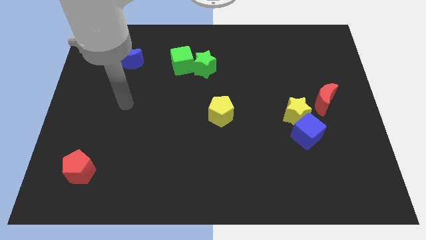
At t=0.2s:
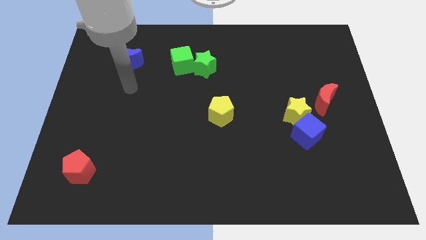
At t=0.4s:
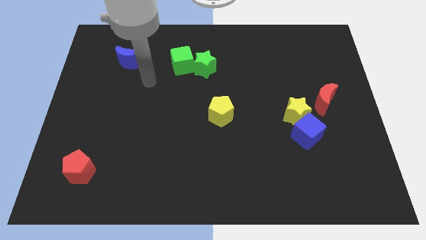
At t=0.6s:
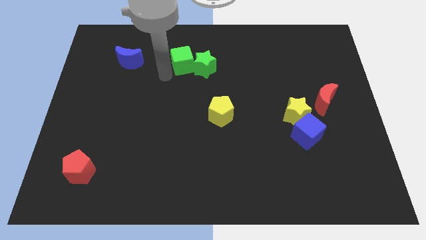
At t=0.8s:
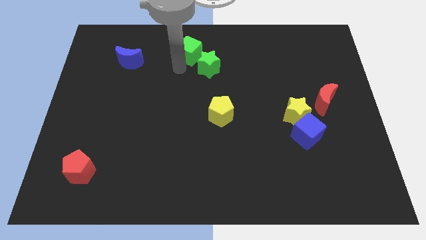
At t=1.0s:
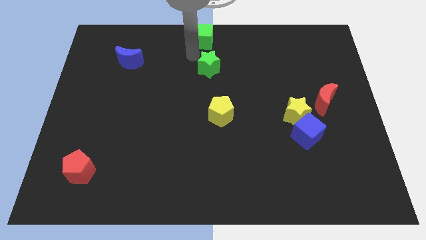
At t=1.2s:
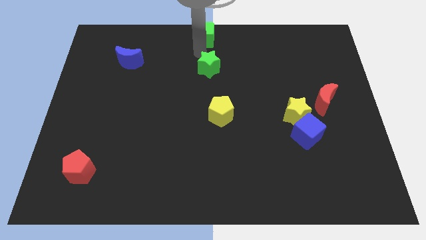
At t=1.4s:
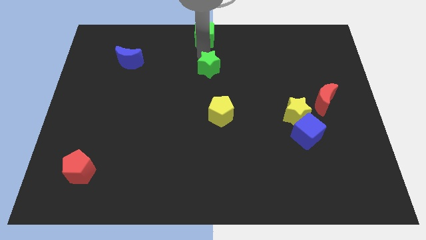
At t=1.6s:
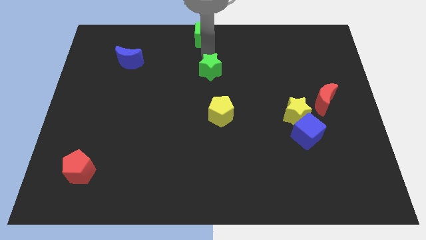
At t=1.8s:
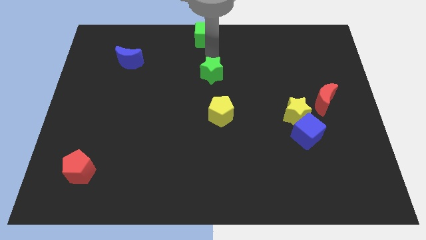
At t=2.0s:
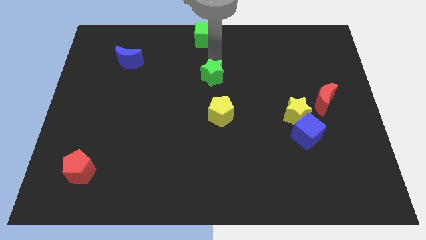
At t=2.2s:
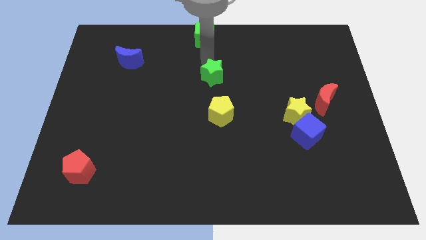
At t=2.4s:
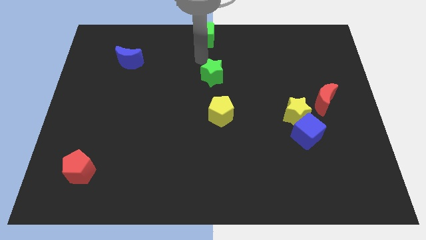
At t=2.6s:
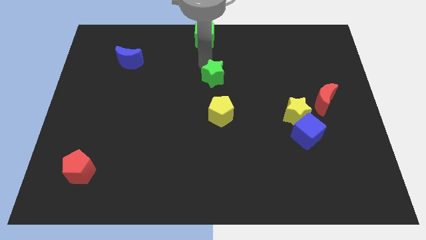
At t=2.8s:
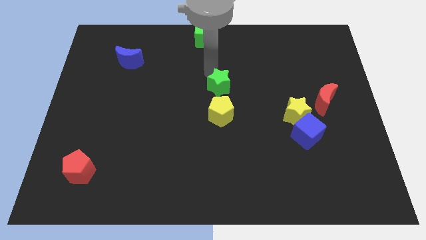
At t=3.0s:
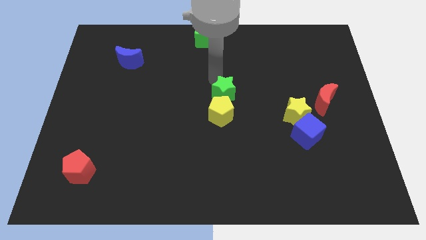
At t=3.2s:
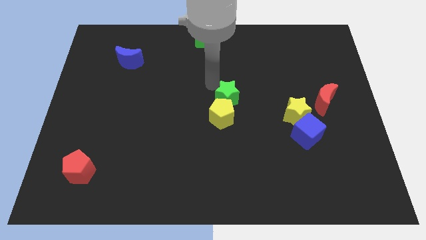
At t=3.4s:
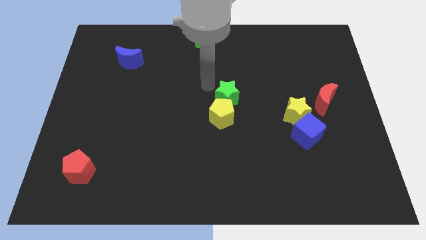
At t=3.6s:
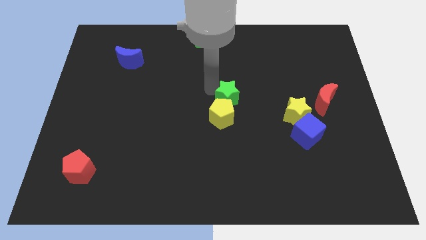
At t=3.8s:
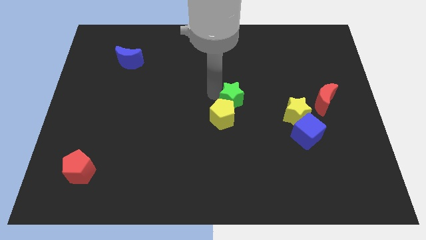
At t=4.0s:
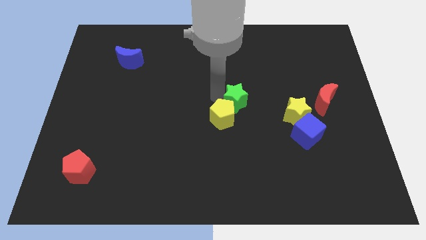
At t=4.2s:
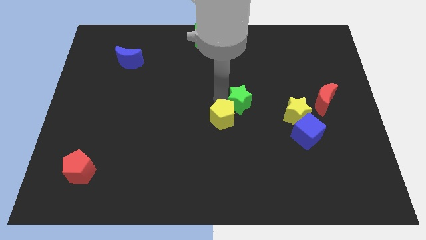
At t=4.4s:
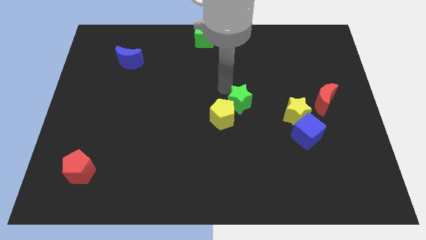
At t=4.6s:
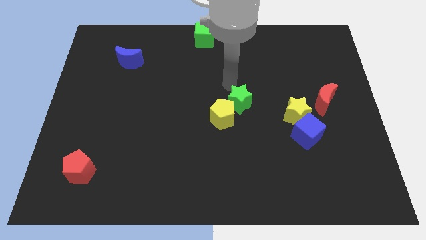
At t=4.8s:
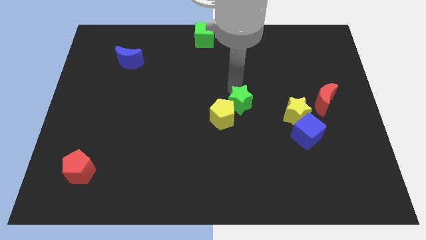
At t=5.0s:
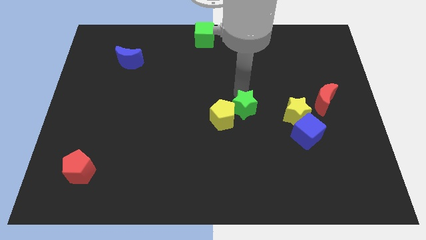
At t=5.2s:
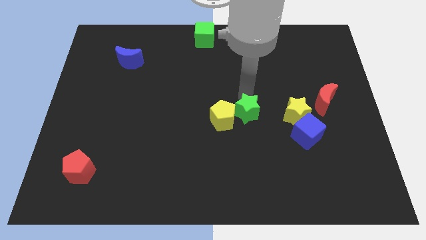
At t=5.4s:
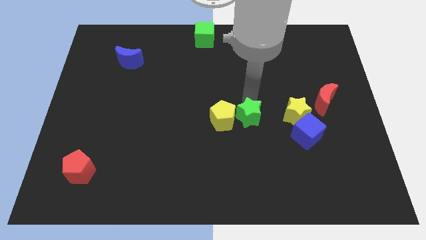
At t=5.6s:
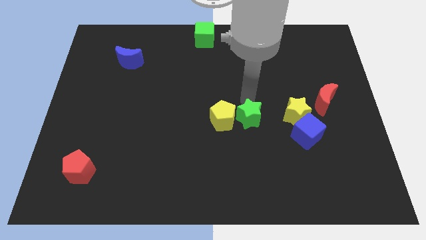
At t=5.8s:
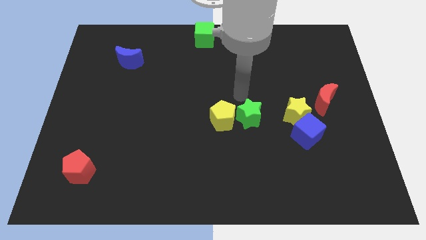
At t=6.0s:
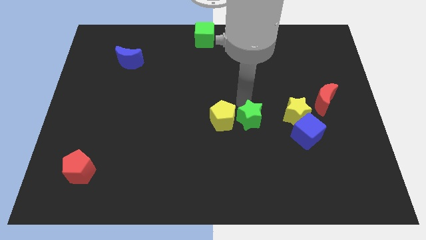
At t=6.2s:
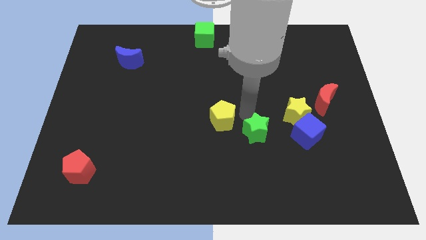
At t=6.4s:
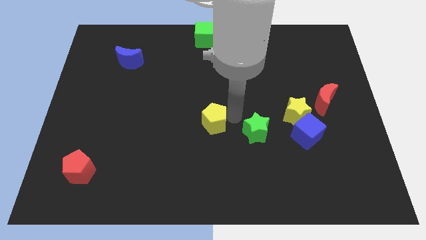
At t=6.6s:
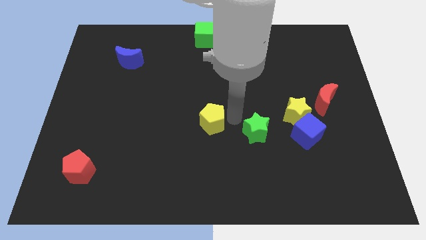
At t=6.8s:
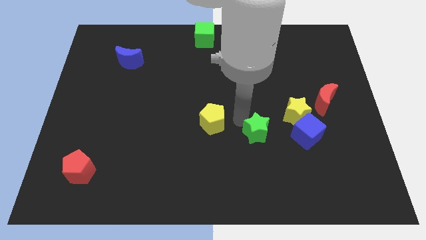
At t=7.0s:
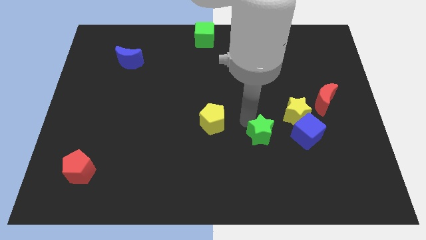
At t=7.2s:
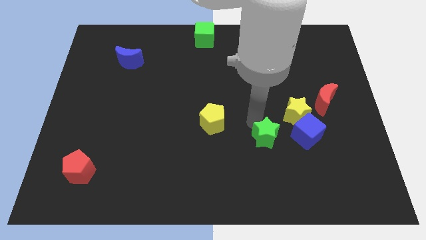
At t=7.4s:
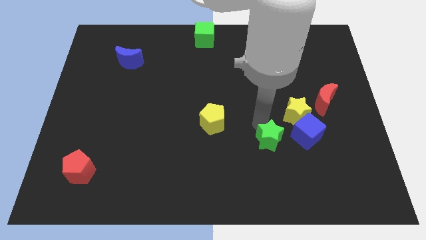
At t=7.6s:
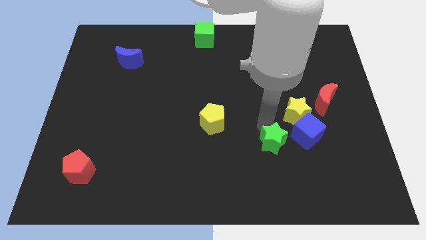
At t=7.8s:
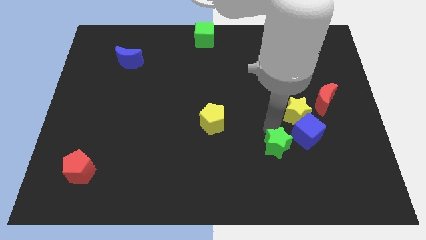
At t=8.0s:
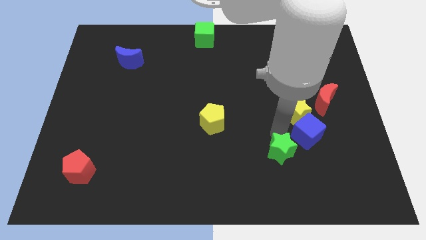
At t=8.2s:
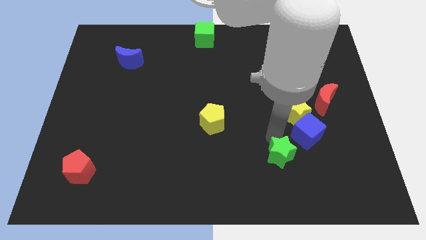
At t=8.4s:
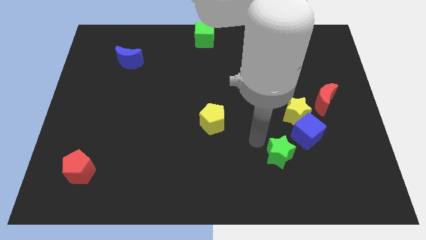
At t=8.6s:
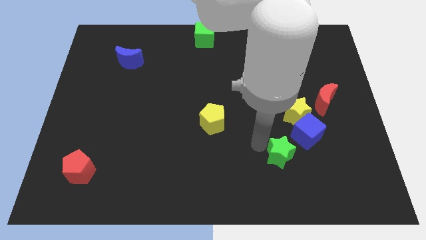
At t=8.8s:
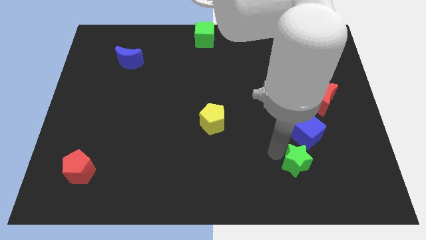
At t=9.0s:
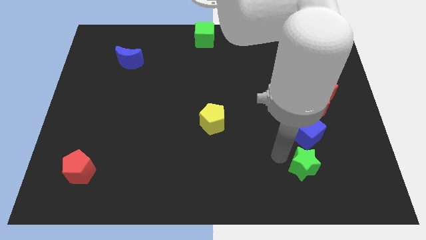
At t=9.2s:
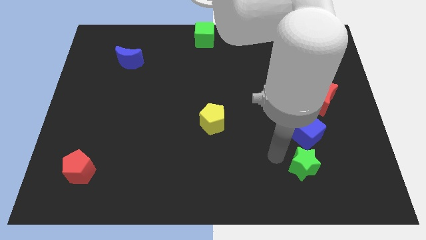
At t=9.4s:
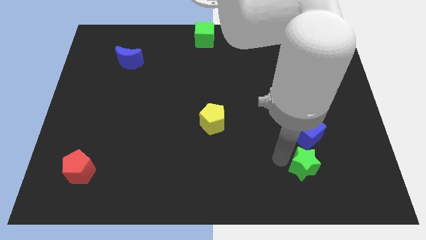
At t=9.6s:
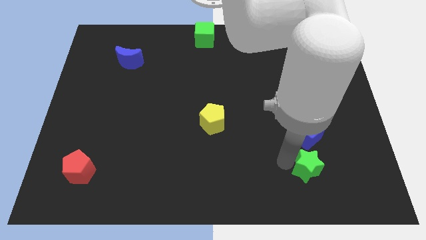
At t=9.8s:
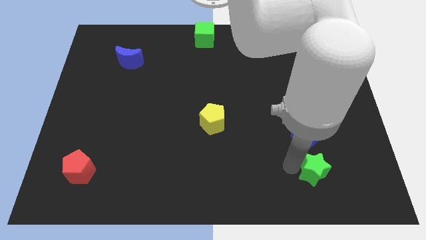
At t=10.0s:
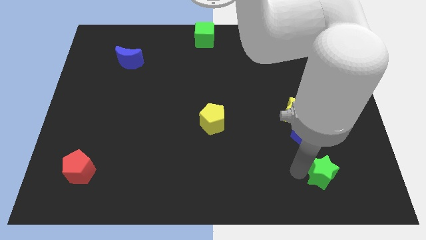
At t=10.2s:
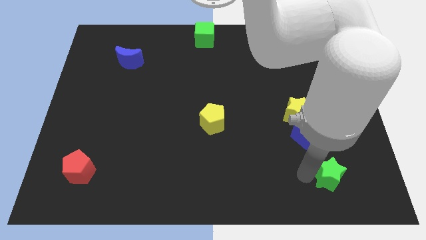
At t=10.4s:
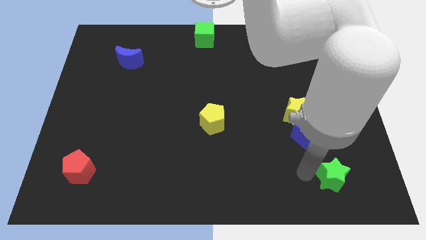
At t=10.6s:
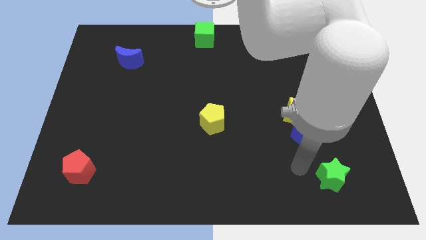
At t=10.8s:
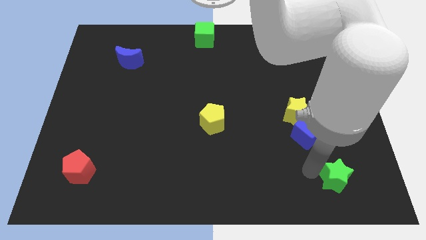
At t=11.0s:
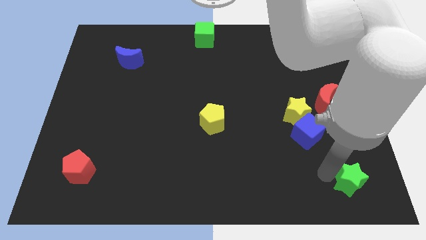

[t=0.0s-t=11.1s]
move the green star to the bottom right of the board

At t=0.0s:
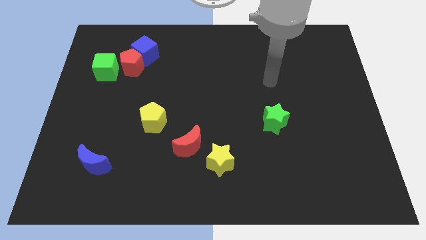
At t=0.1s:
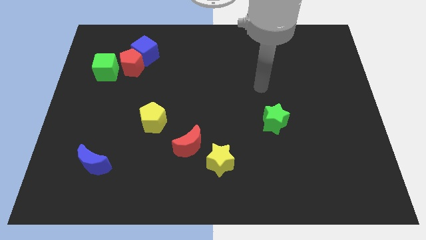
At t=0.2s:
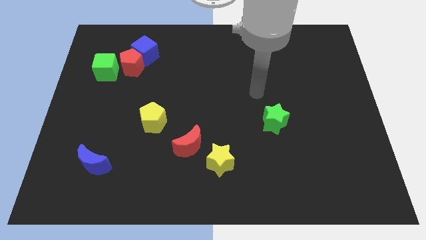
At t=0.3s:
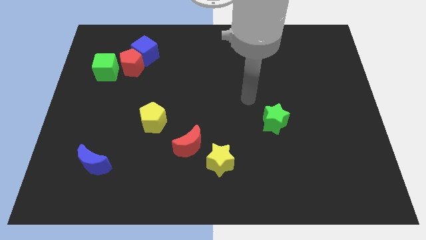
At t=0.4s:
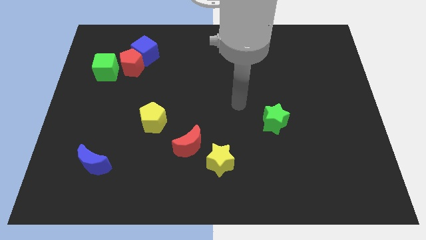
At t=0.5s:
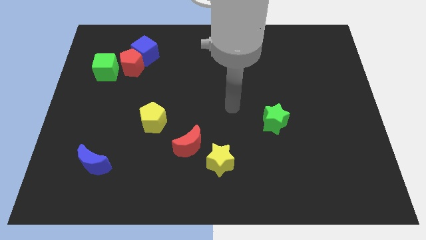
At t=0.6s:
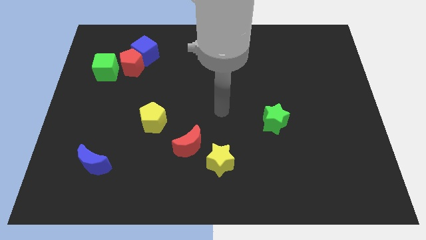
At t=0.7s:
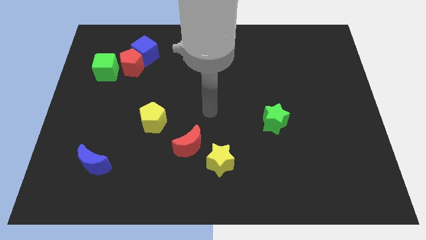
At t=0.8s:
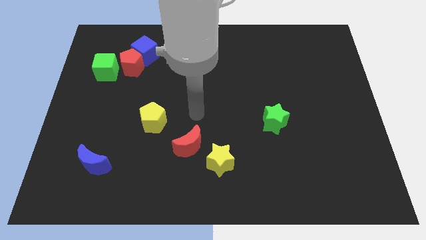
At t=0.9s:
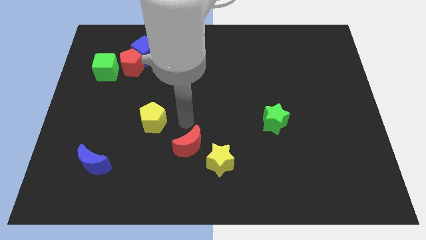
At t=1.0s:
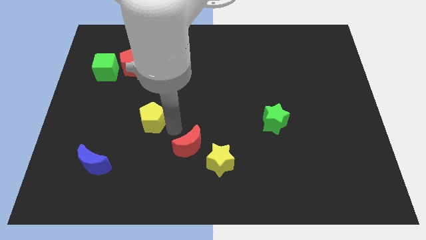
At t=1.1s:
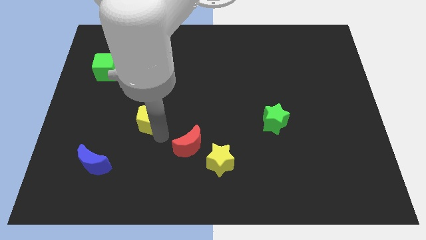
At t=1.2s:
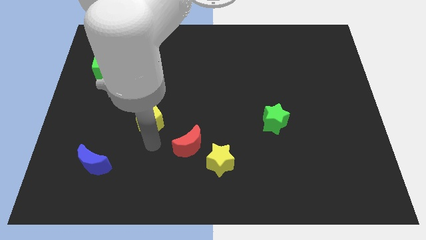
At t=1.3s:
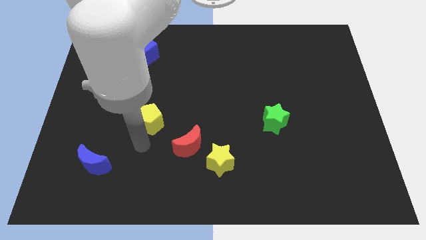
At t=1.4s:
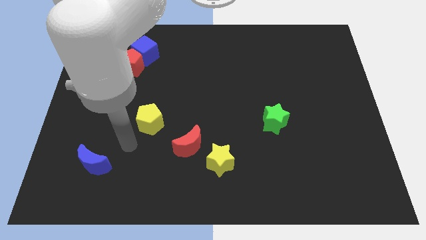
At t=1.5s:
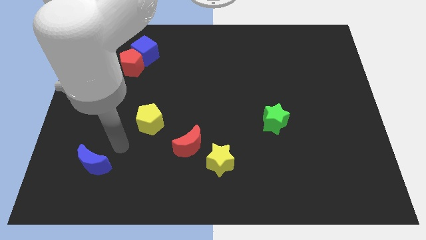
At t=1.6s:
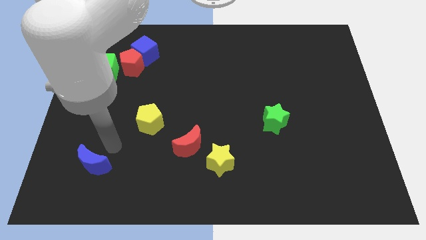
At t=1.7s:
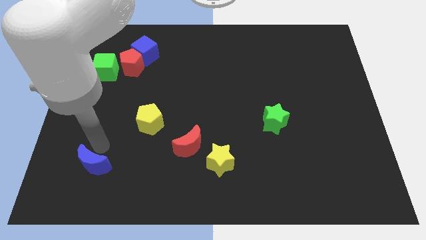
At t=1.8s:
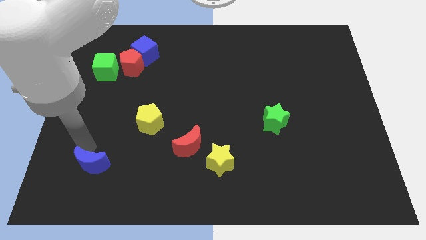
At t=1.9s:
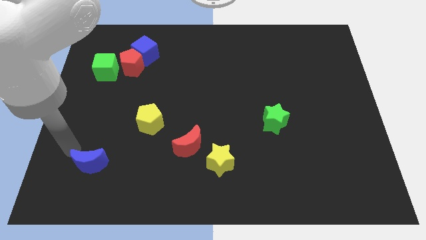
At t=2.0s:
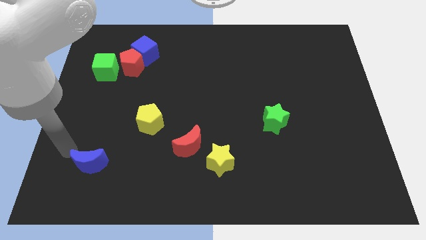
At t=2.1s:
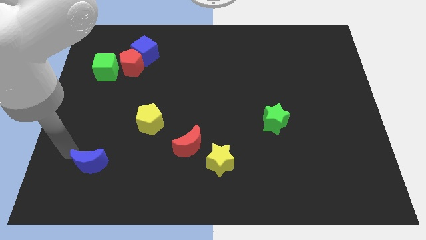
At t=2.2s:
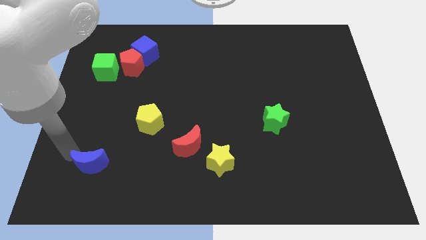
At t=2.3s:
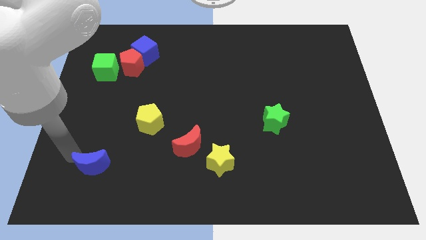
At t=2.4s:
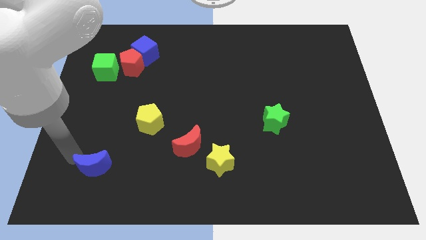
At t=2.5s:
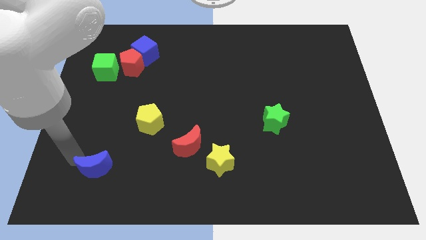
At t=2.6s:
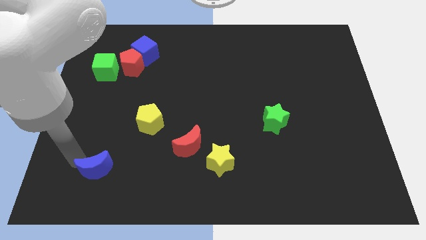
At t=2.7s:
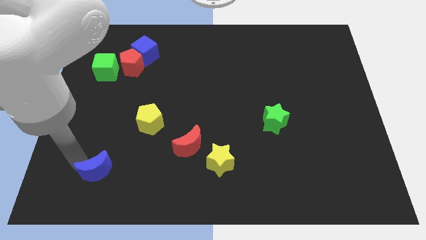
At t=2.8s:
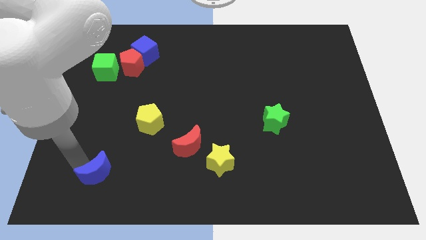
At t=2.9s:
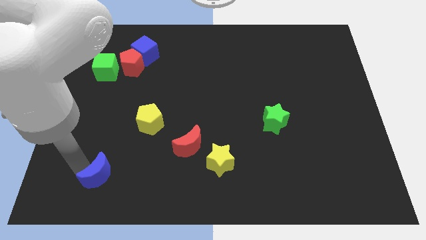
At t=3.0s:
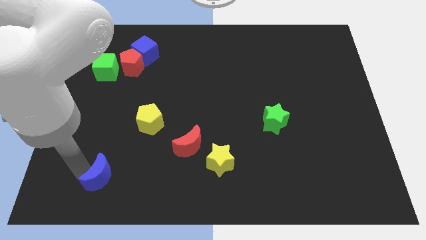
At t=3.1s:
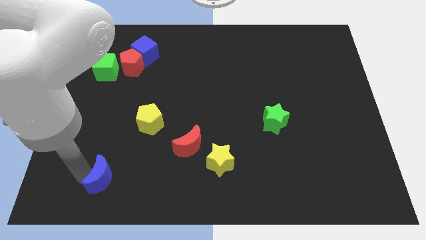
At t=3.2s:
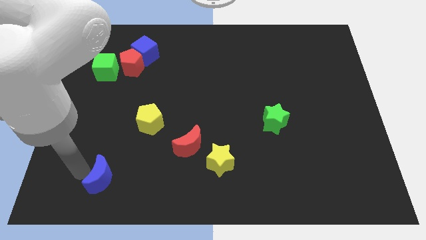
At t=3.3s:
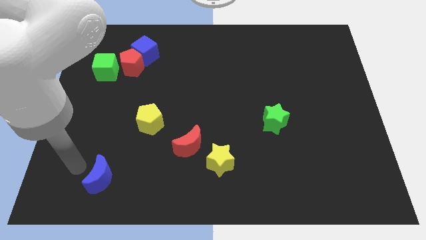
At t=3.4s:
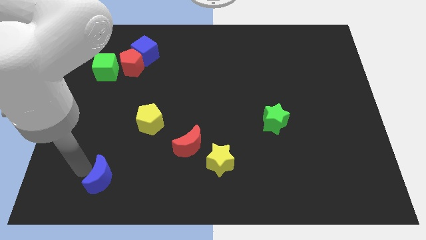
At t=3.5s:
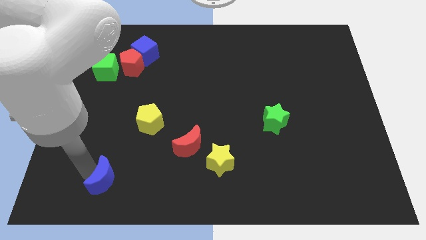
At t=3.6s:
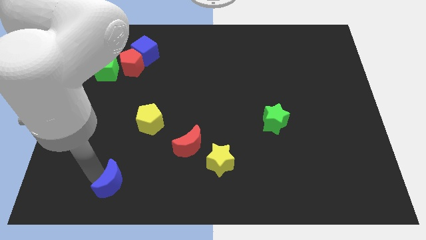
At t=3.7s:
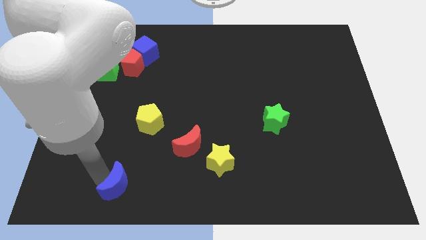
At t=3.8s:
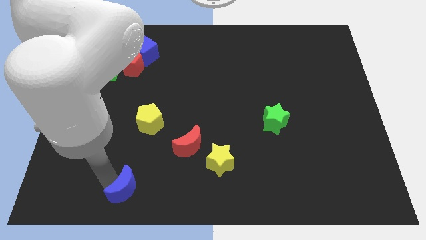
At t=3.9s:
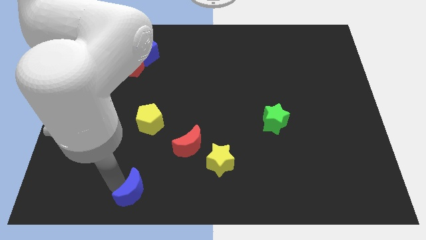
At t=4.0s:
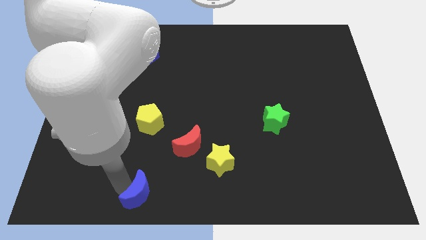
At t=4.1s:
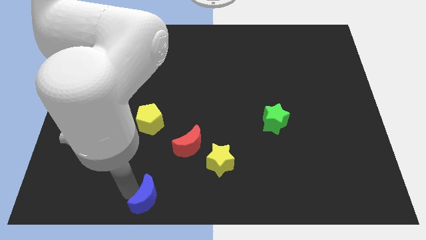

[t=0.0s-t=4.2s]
put the blue moon to the bottom
